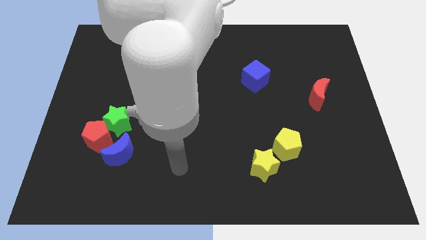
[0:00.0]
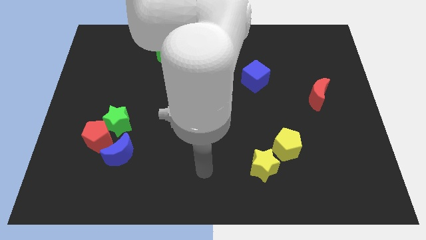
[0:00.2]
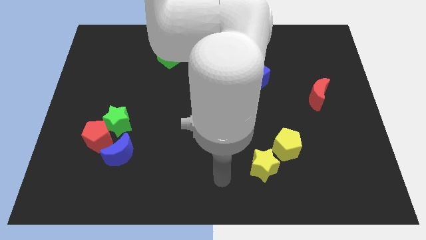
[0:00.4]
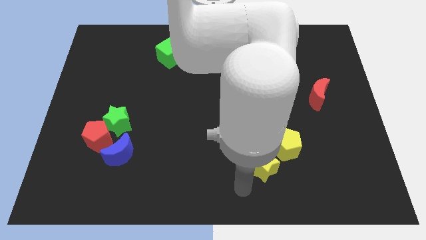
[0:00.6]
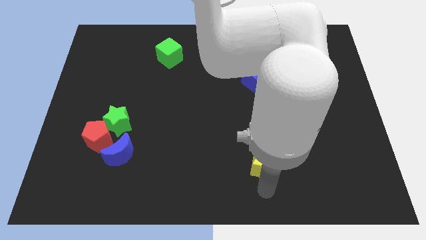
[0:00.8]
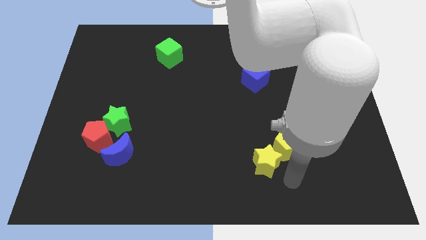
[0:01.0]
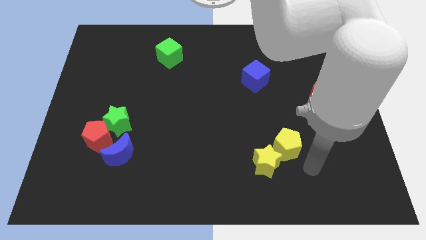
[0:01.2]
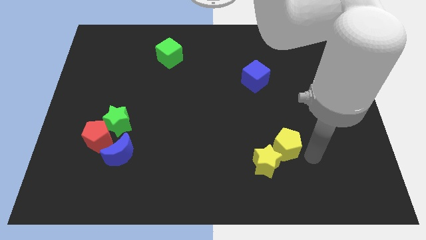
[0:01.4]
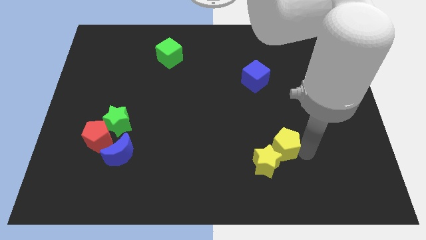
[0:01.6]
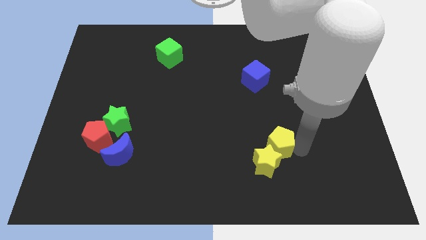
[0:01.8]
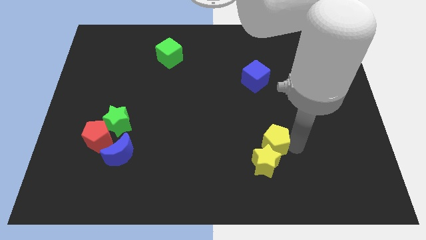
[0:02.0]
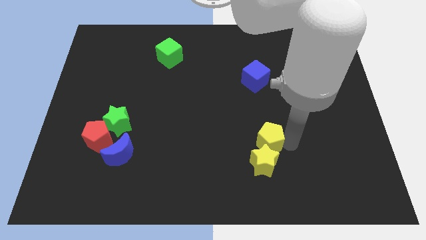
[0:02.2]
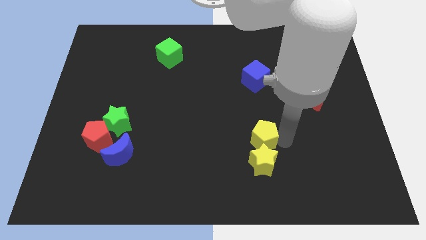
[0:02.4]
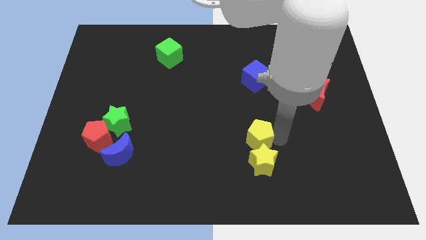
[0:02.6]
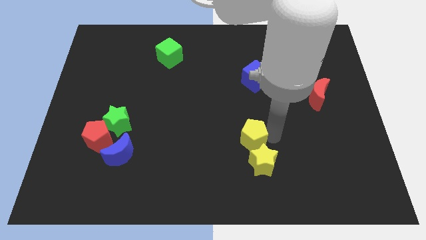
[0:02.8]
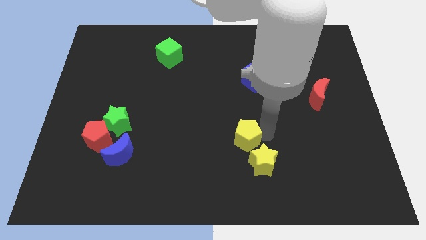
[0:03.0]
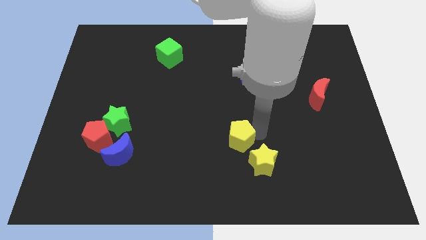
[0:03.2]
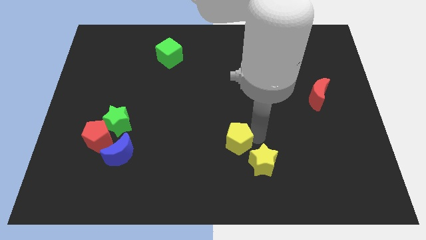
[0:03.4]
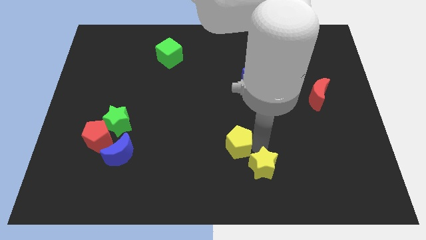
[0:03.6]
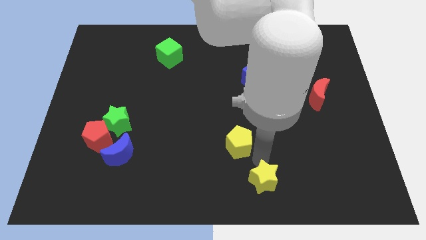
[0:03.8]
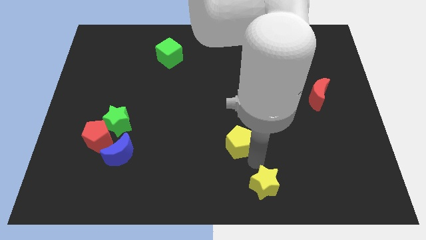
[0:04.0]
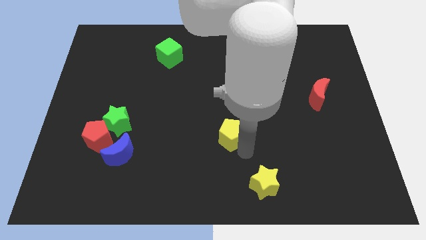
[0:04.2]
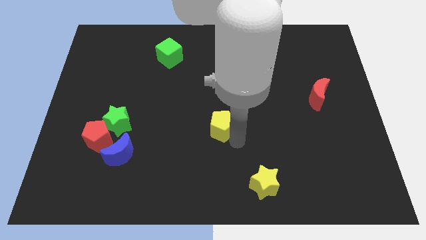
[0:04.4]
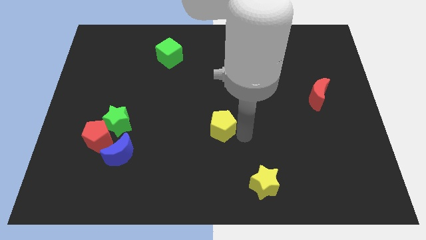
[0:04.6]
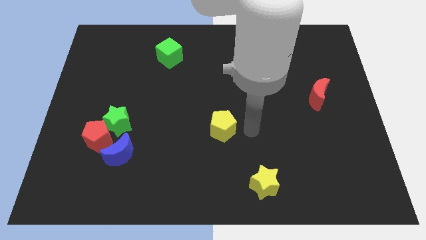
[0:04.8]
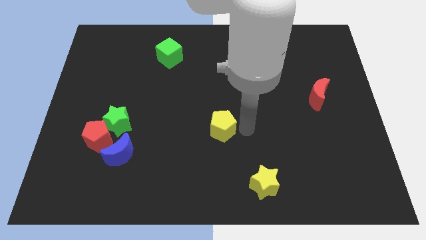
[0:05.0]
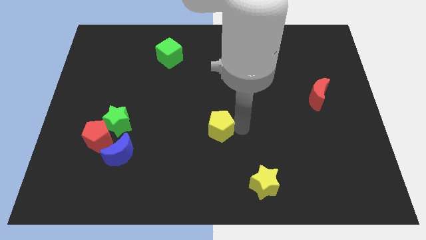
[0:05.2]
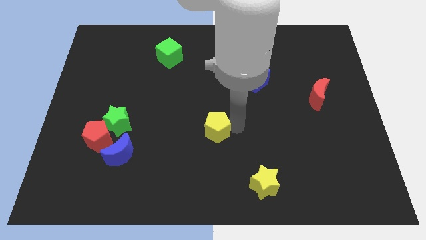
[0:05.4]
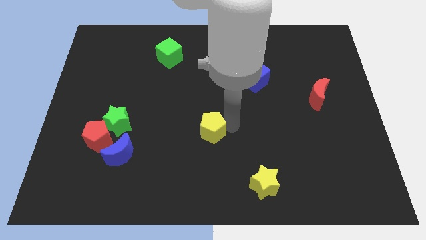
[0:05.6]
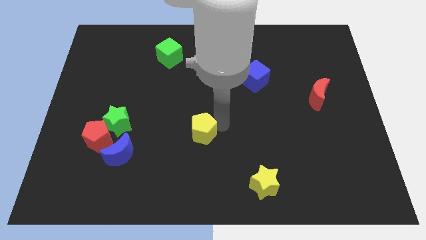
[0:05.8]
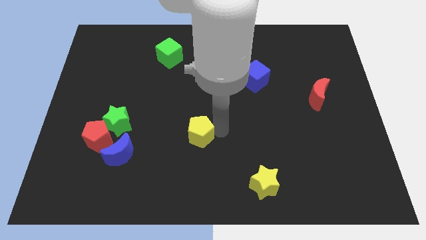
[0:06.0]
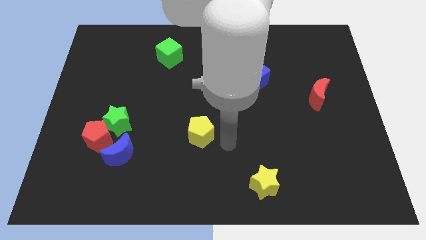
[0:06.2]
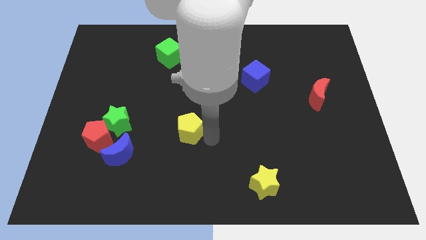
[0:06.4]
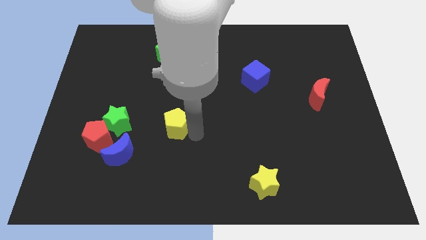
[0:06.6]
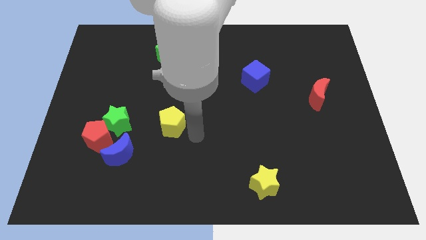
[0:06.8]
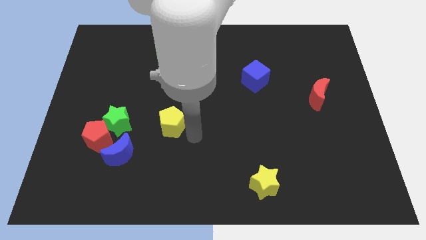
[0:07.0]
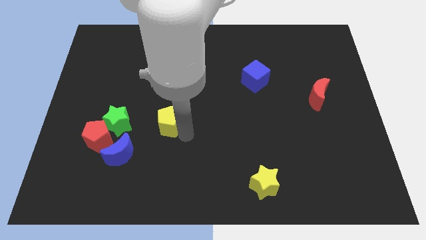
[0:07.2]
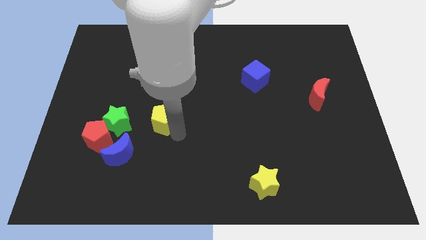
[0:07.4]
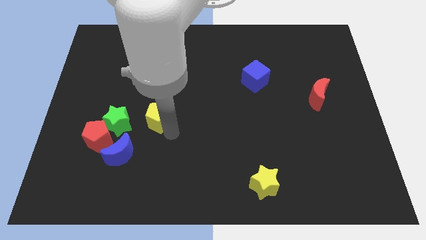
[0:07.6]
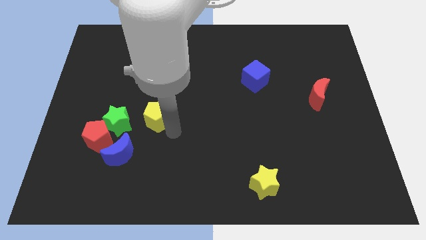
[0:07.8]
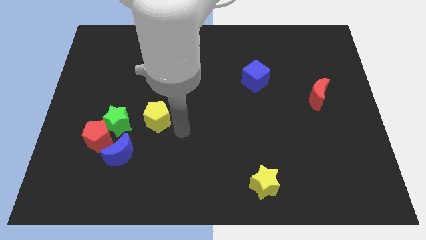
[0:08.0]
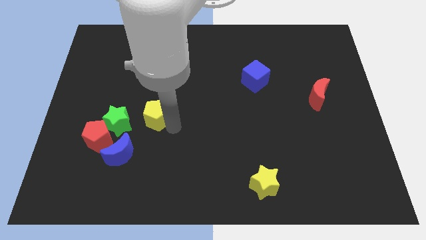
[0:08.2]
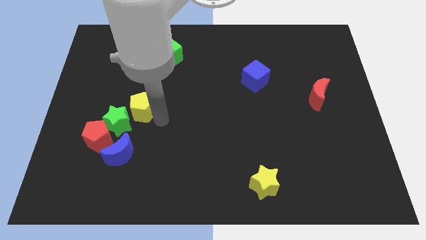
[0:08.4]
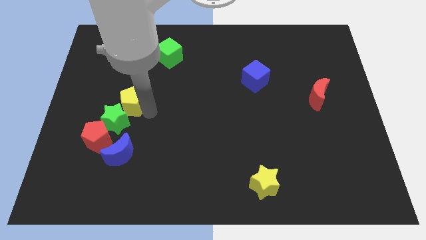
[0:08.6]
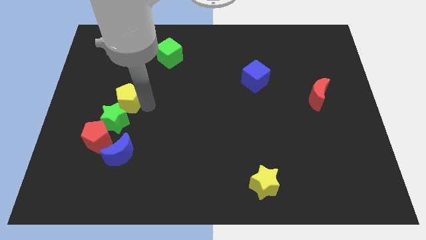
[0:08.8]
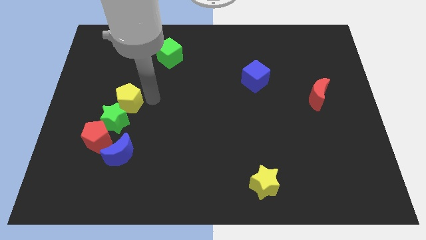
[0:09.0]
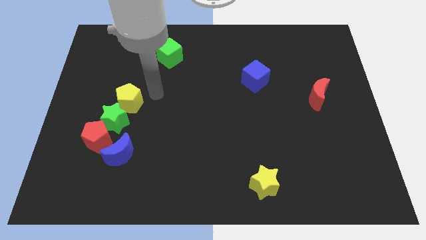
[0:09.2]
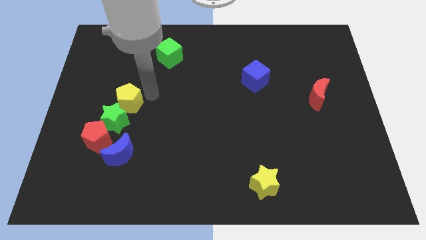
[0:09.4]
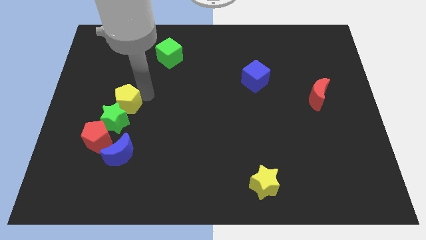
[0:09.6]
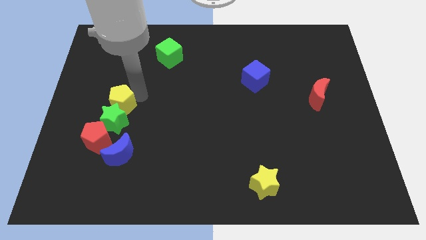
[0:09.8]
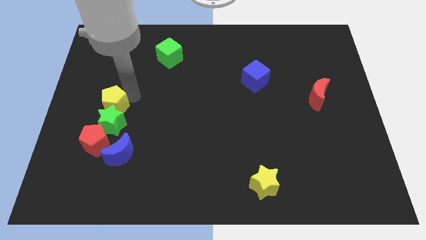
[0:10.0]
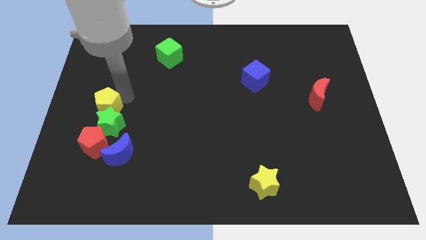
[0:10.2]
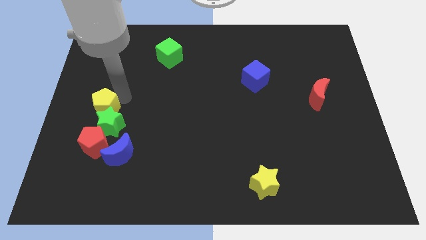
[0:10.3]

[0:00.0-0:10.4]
put the yellow pentagon to the left side

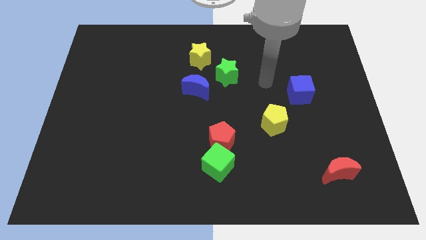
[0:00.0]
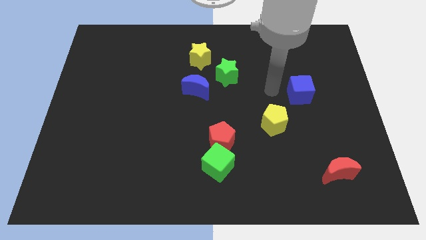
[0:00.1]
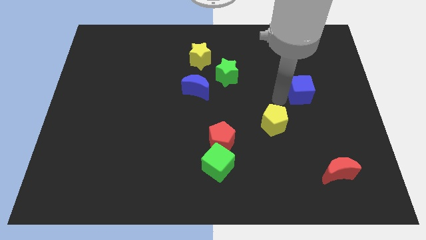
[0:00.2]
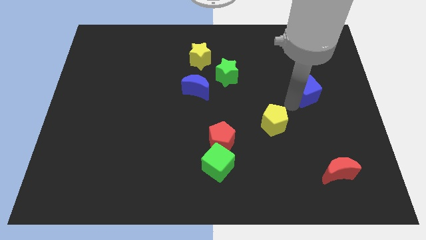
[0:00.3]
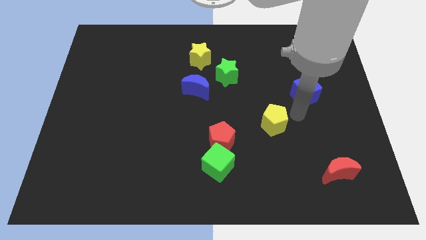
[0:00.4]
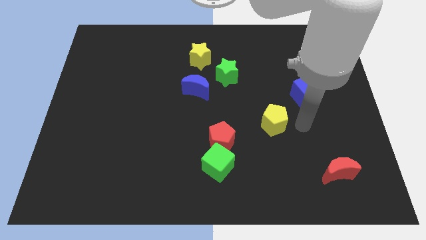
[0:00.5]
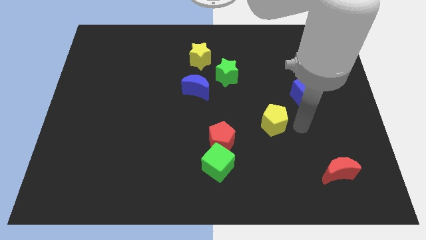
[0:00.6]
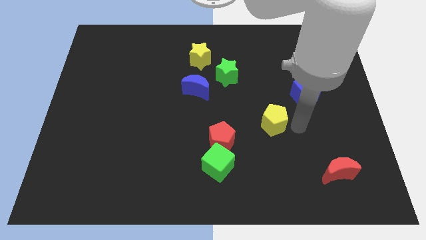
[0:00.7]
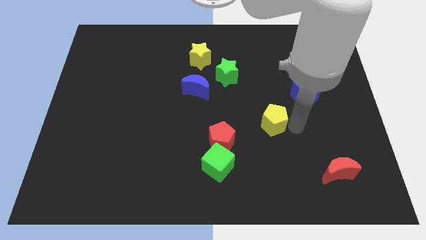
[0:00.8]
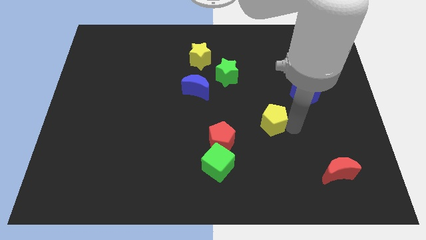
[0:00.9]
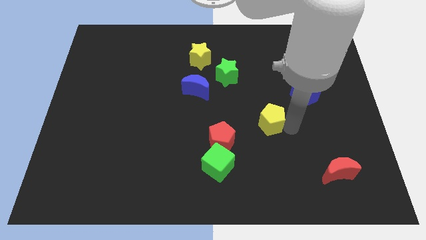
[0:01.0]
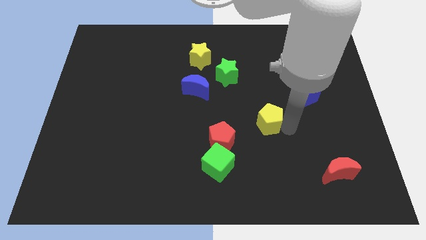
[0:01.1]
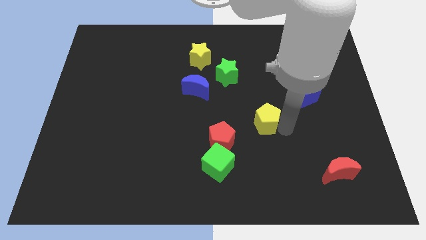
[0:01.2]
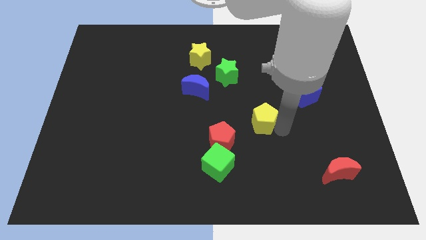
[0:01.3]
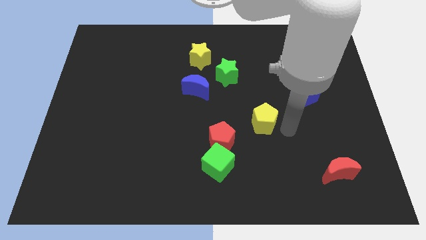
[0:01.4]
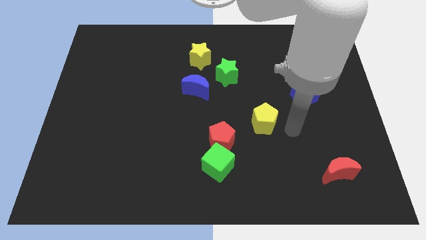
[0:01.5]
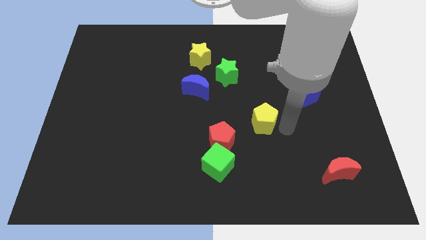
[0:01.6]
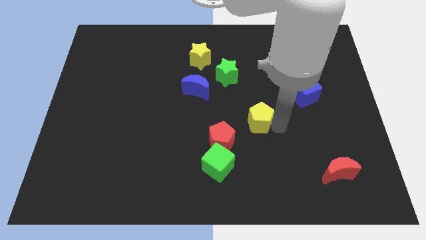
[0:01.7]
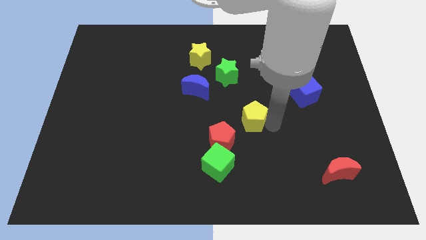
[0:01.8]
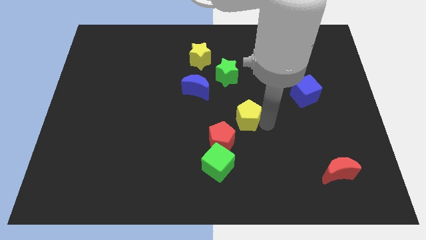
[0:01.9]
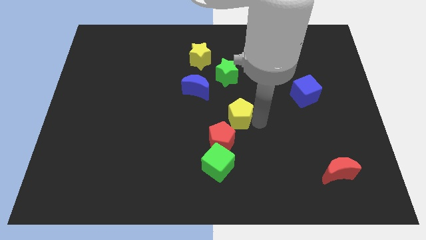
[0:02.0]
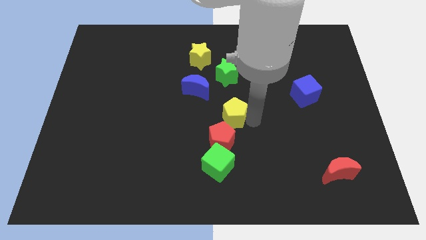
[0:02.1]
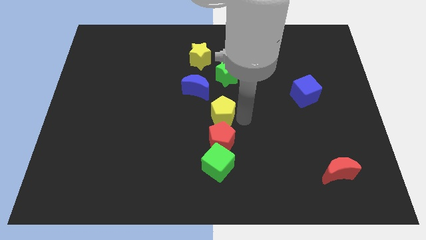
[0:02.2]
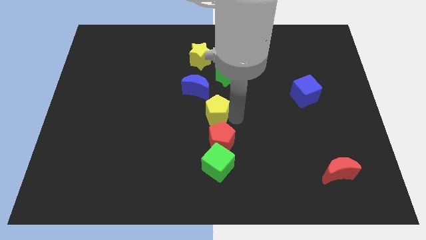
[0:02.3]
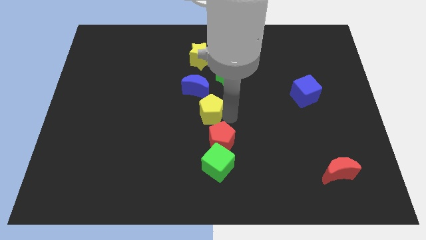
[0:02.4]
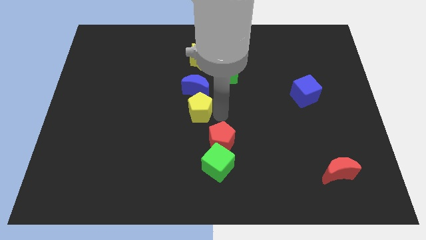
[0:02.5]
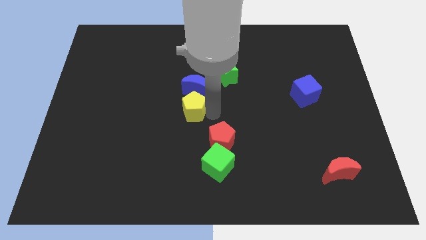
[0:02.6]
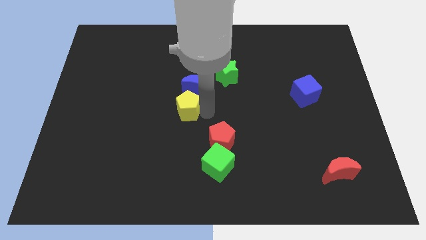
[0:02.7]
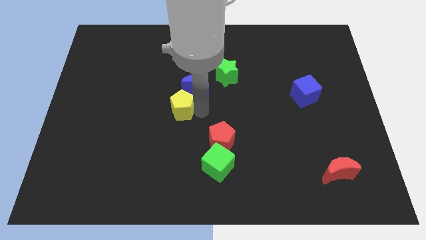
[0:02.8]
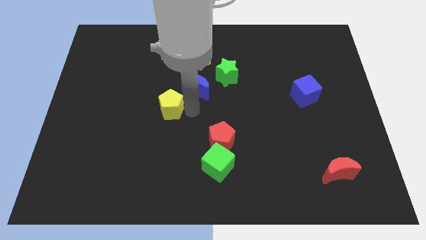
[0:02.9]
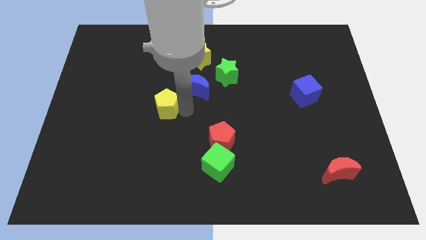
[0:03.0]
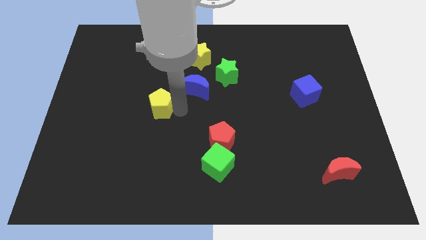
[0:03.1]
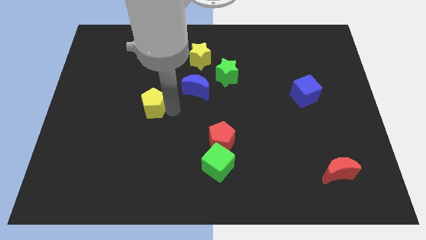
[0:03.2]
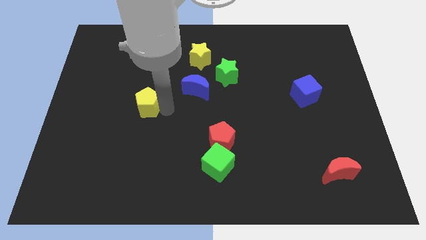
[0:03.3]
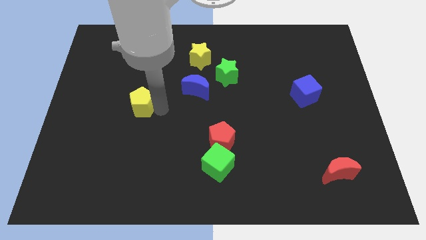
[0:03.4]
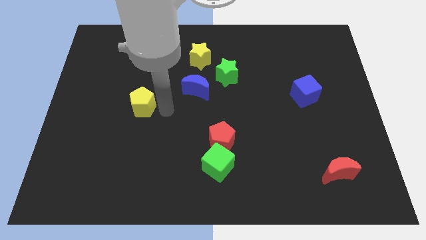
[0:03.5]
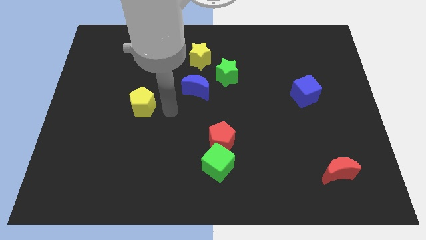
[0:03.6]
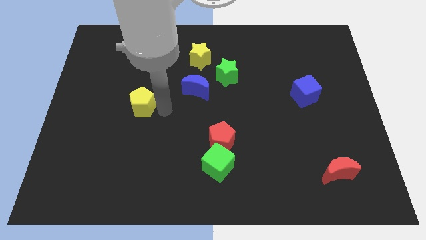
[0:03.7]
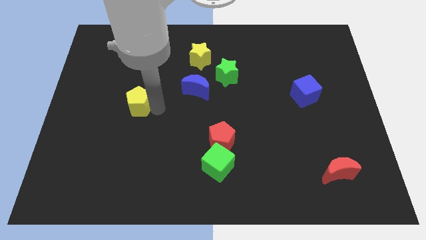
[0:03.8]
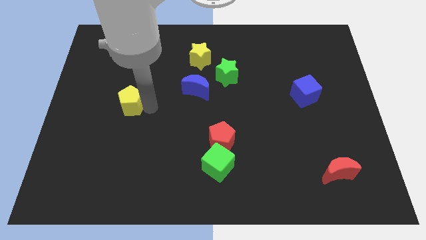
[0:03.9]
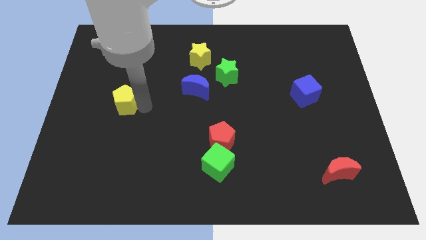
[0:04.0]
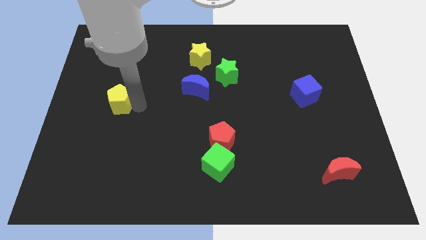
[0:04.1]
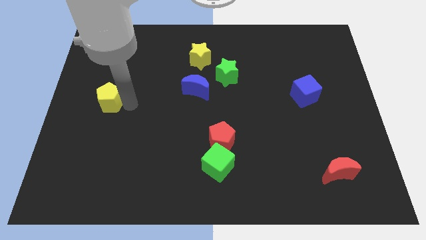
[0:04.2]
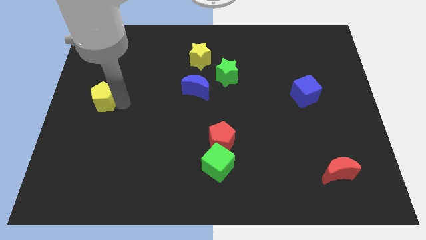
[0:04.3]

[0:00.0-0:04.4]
push the yellow pentagon to the center left
